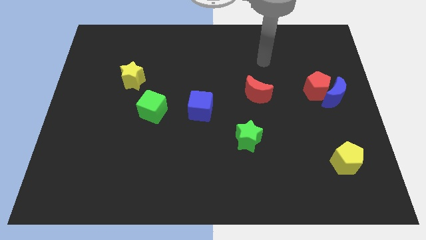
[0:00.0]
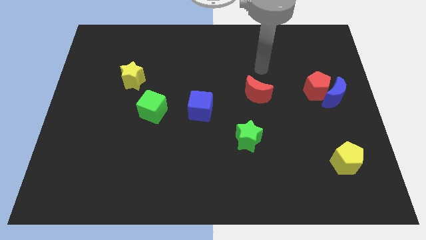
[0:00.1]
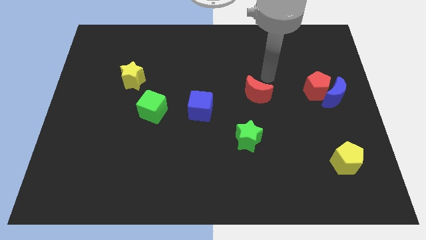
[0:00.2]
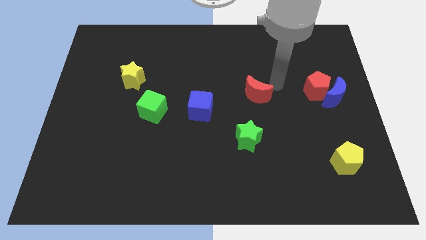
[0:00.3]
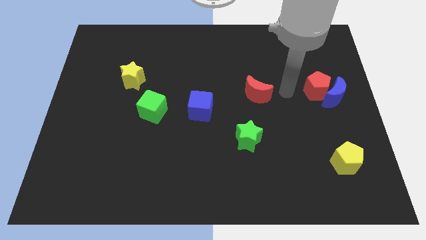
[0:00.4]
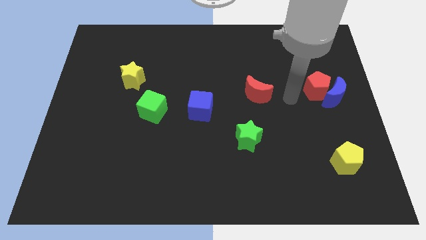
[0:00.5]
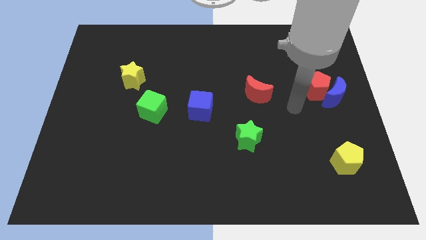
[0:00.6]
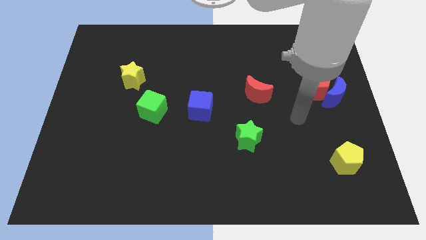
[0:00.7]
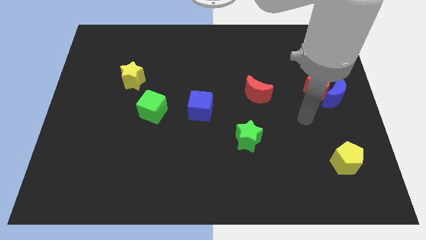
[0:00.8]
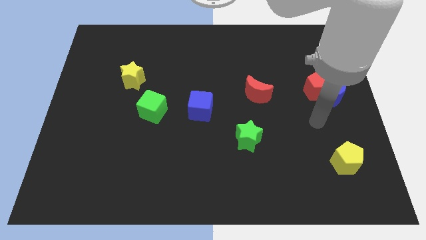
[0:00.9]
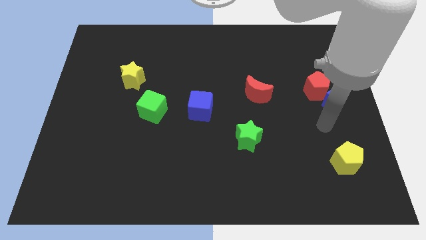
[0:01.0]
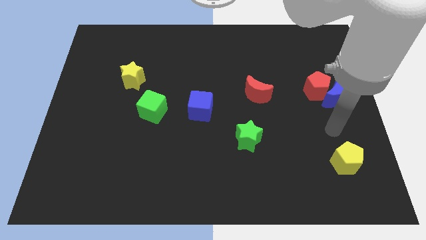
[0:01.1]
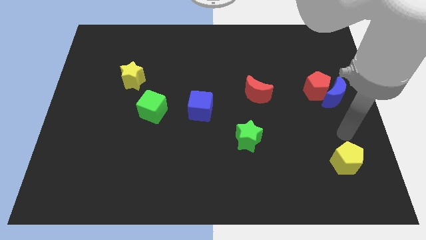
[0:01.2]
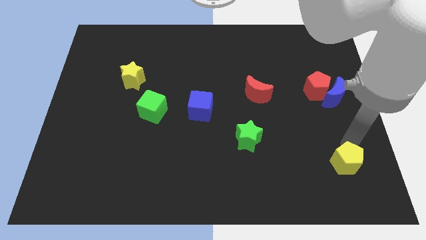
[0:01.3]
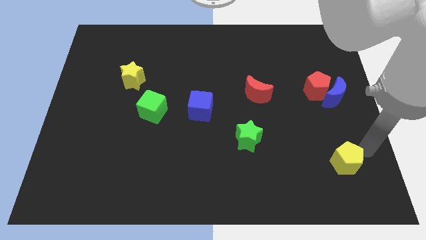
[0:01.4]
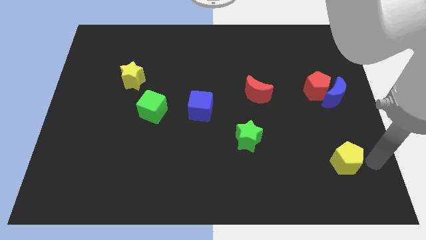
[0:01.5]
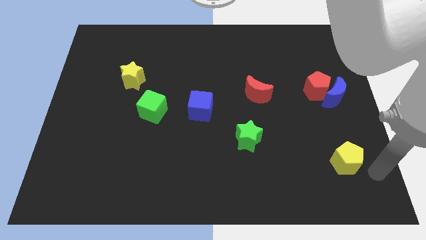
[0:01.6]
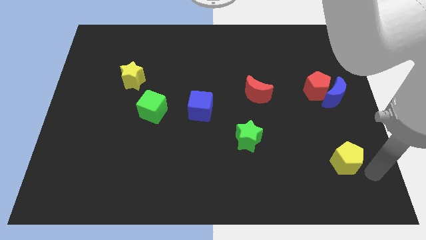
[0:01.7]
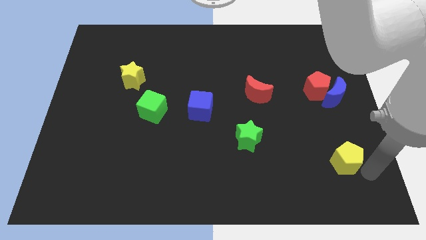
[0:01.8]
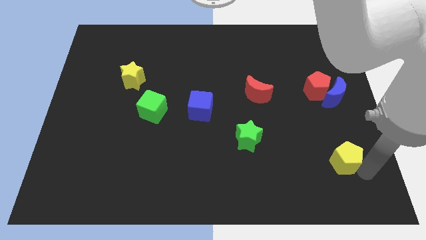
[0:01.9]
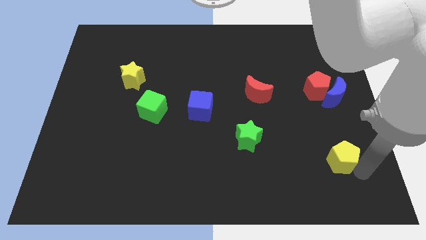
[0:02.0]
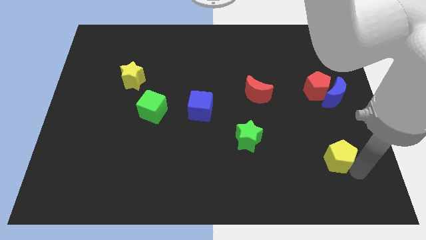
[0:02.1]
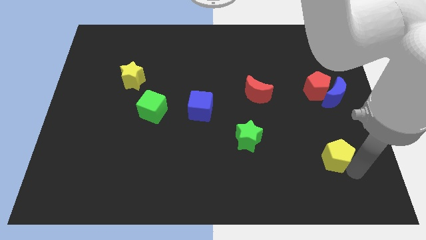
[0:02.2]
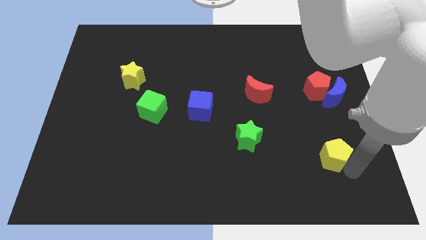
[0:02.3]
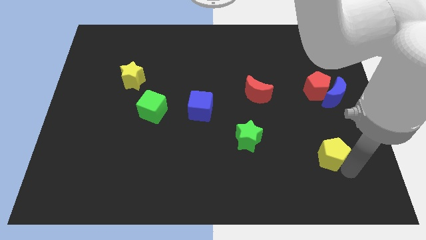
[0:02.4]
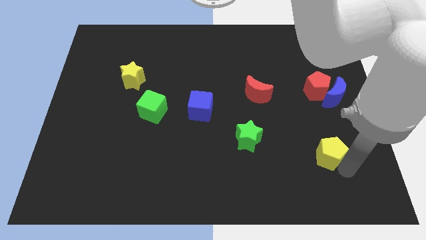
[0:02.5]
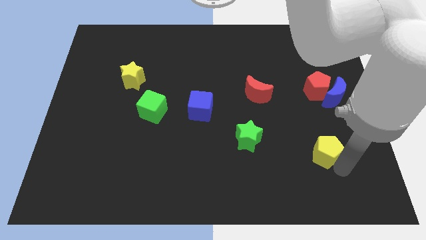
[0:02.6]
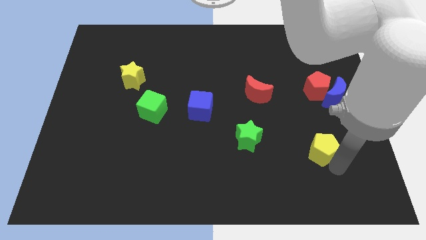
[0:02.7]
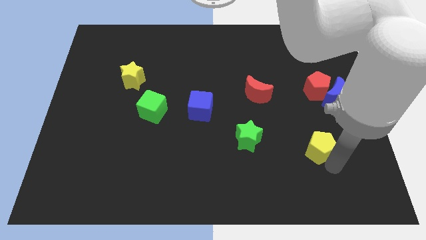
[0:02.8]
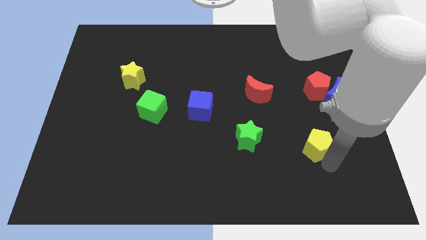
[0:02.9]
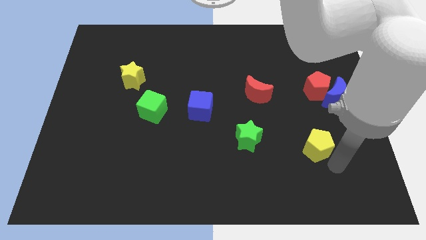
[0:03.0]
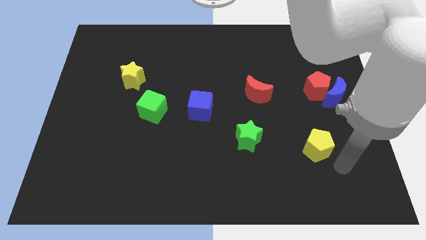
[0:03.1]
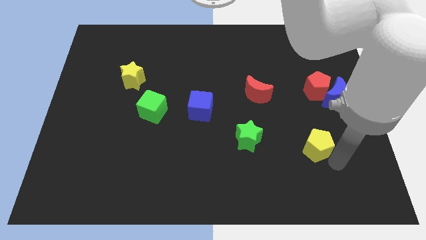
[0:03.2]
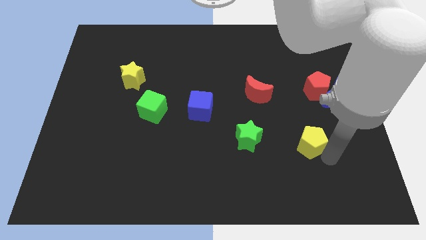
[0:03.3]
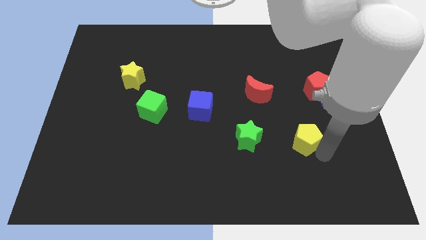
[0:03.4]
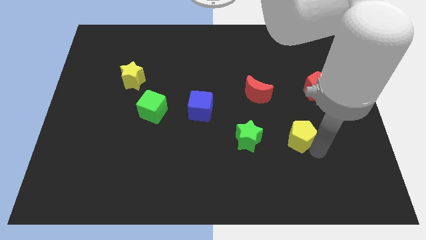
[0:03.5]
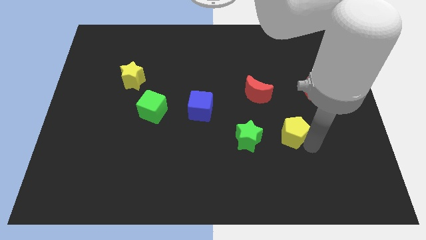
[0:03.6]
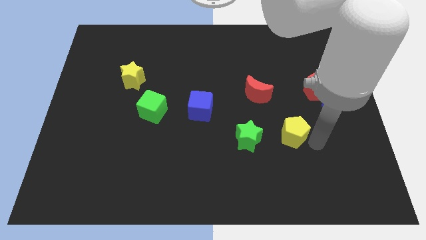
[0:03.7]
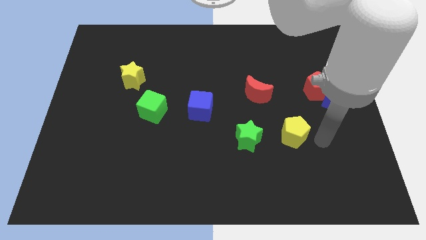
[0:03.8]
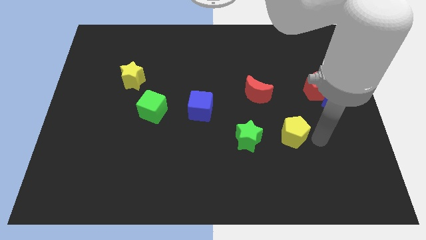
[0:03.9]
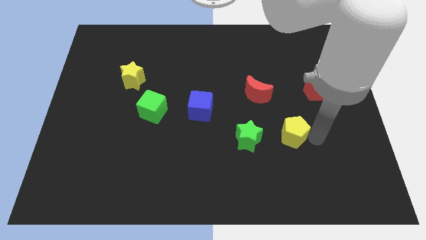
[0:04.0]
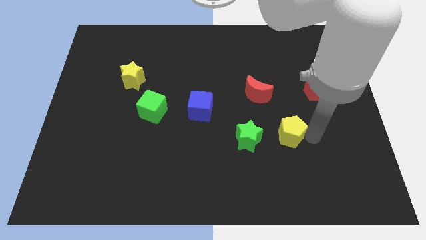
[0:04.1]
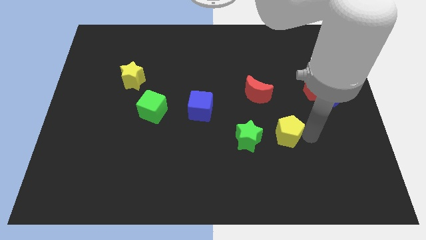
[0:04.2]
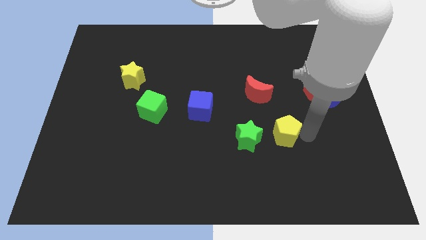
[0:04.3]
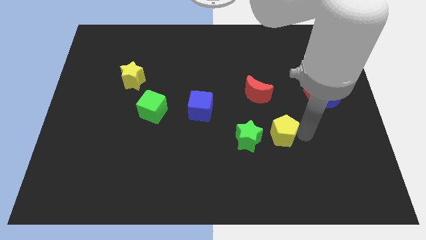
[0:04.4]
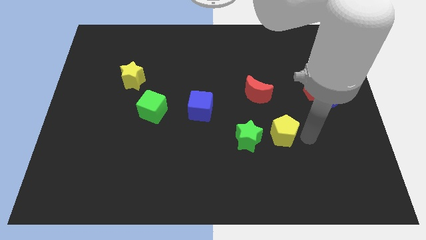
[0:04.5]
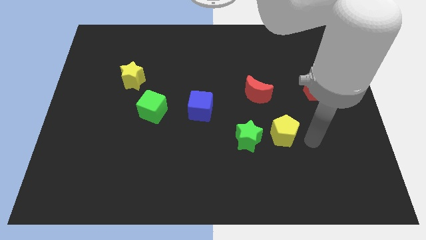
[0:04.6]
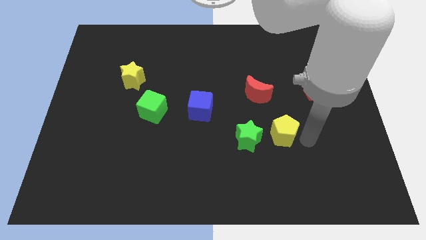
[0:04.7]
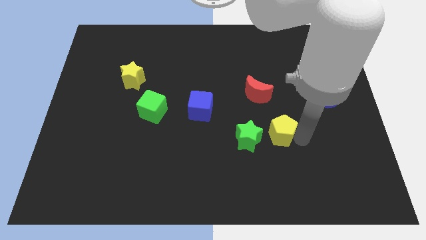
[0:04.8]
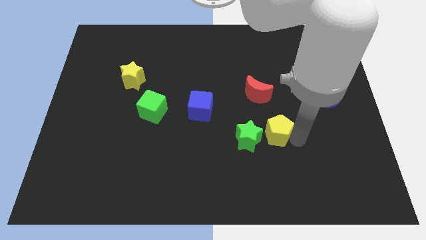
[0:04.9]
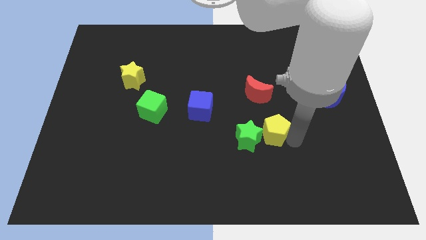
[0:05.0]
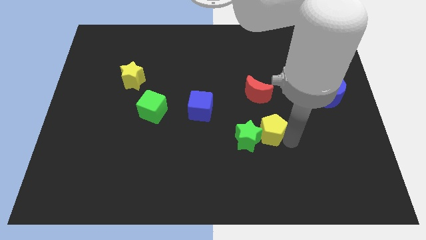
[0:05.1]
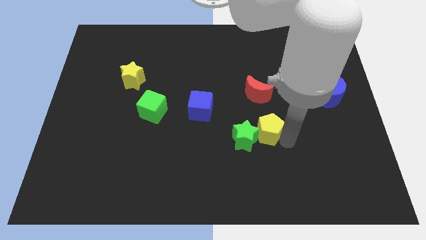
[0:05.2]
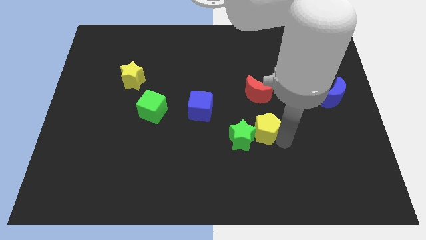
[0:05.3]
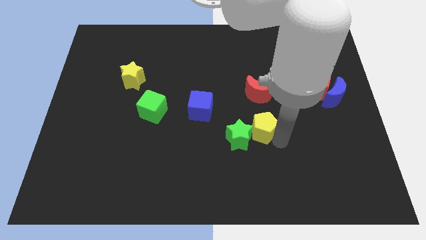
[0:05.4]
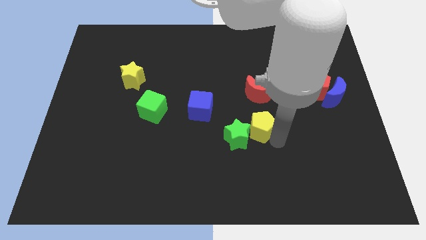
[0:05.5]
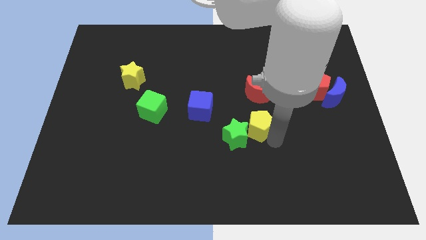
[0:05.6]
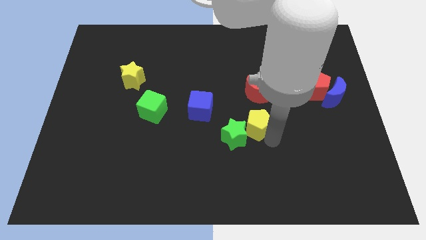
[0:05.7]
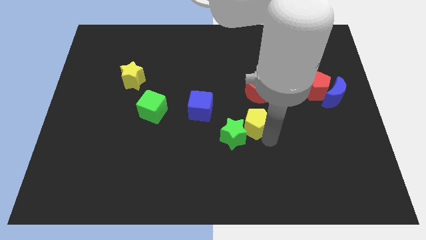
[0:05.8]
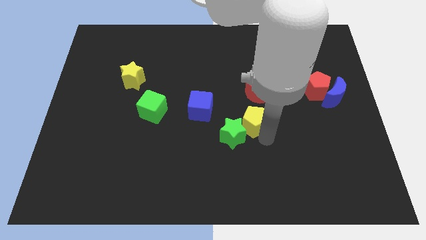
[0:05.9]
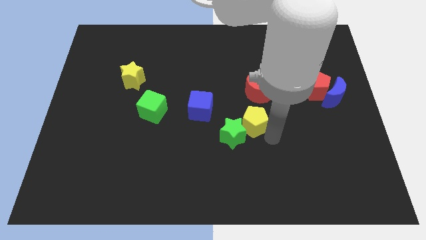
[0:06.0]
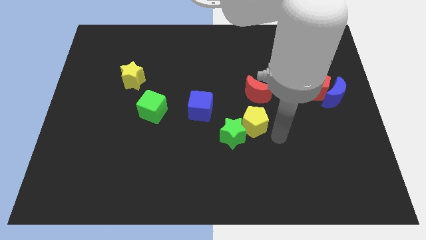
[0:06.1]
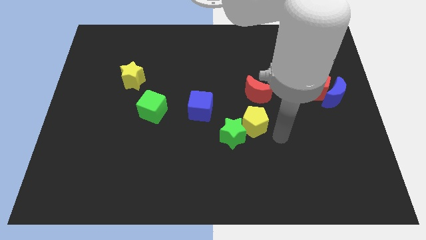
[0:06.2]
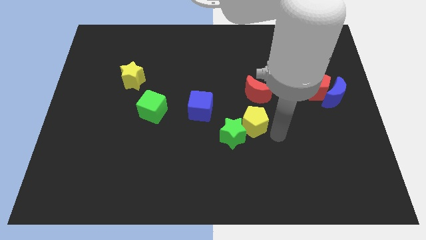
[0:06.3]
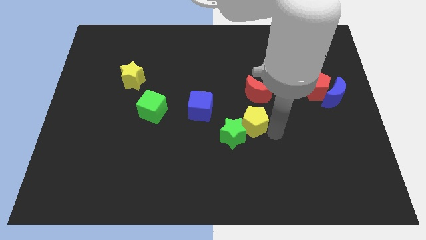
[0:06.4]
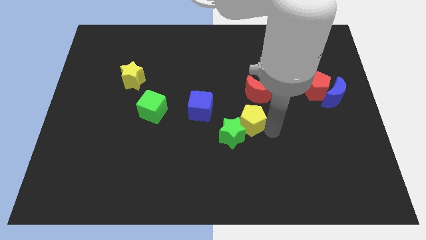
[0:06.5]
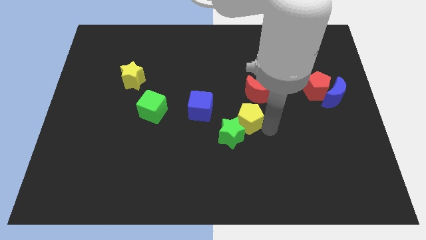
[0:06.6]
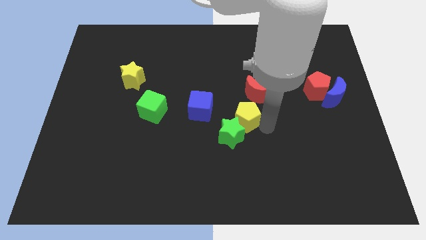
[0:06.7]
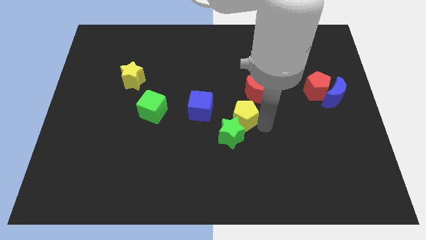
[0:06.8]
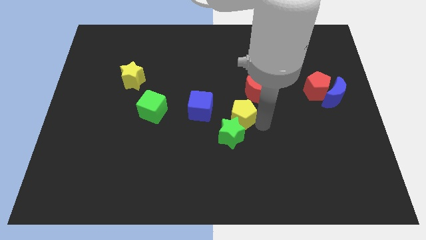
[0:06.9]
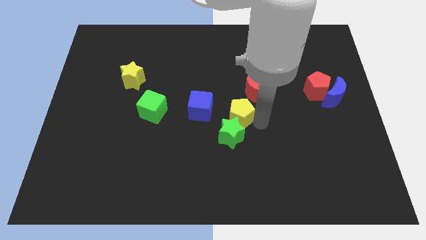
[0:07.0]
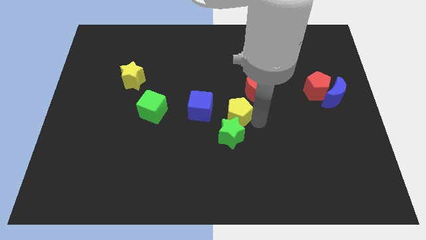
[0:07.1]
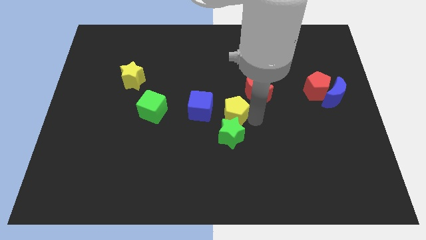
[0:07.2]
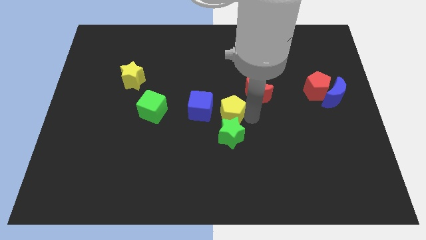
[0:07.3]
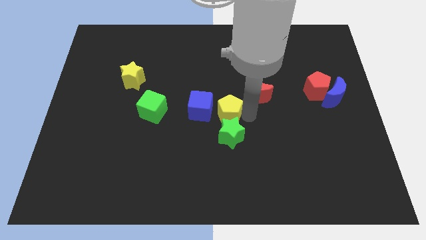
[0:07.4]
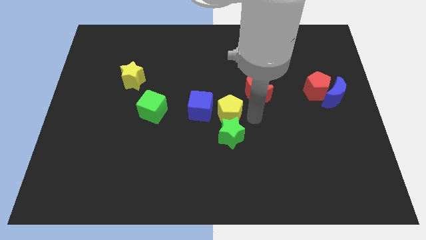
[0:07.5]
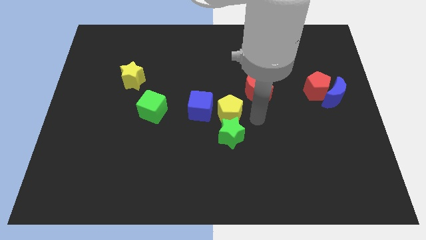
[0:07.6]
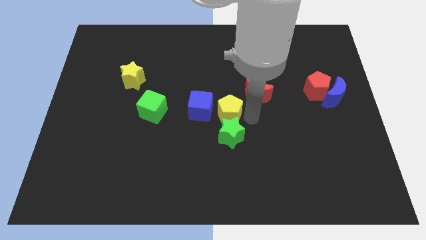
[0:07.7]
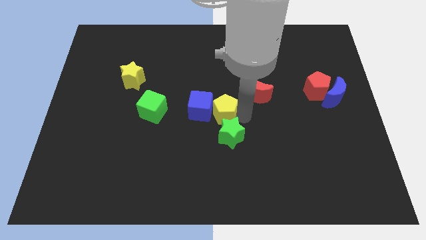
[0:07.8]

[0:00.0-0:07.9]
put the yellow pentagon to the blue cube
